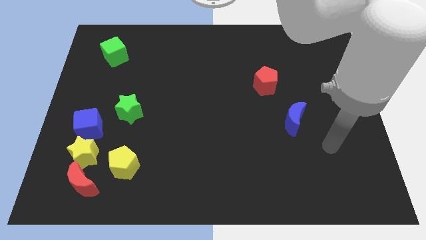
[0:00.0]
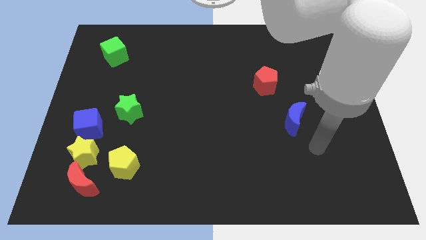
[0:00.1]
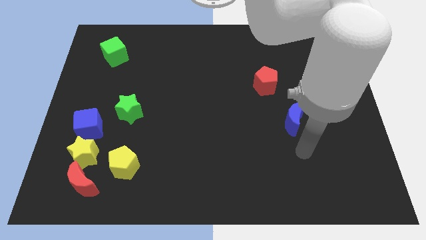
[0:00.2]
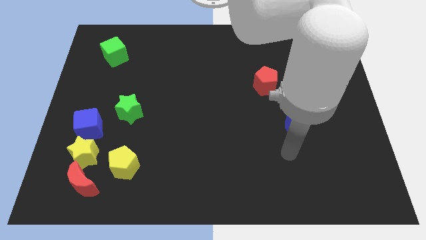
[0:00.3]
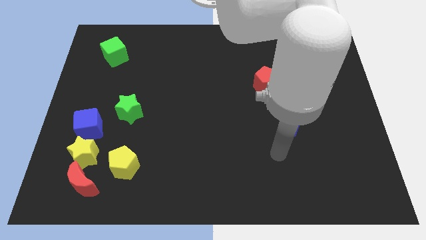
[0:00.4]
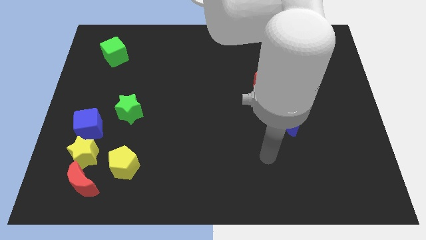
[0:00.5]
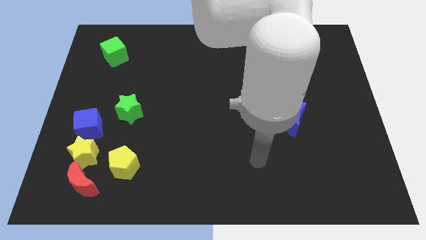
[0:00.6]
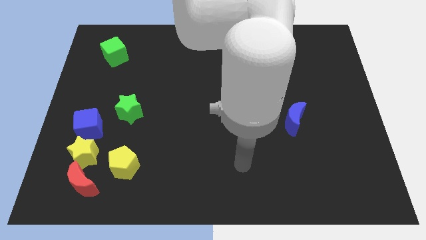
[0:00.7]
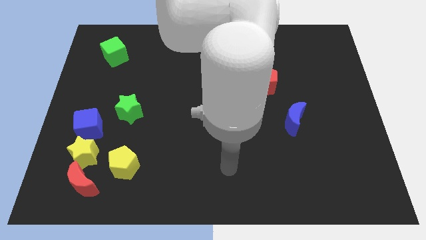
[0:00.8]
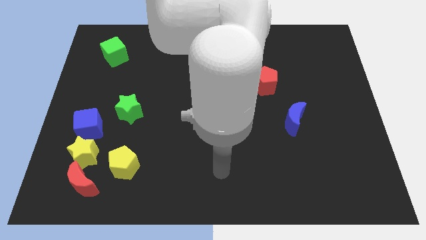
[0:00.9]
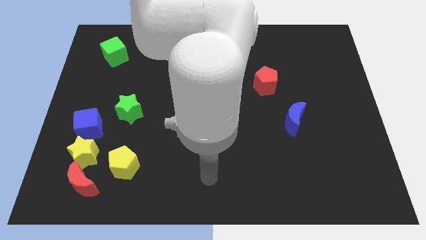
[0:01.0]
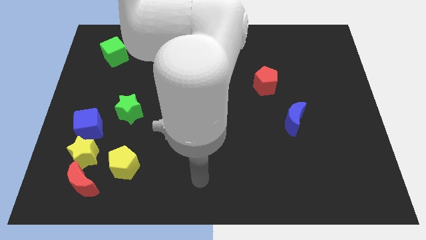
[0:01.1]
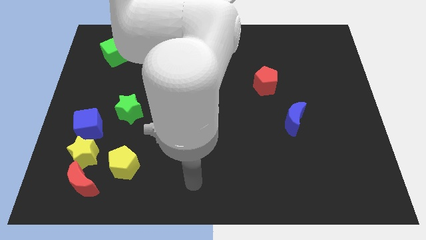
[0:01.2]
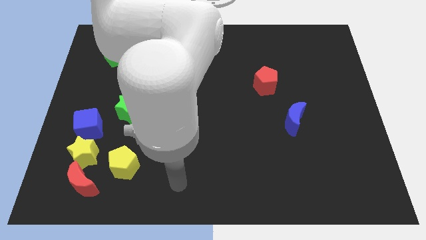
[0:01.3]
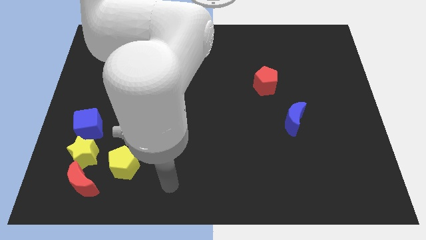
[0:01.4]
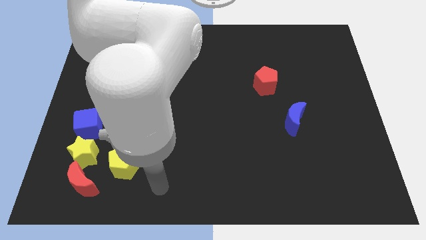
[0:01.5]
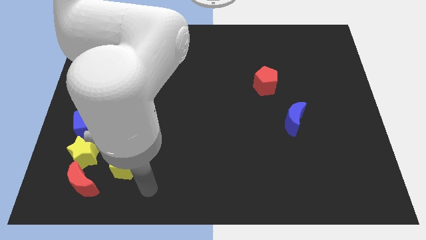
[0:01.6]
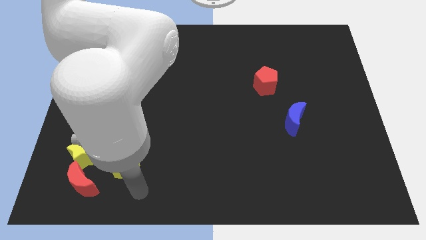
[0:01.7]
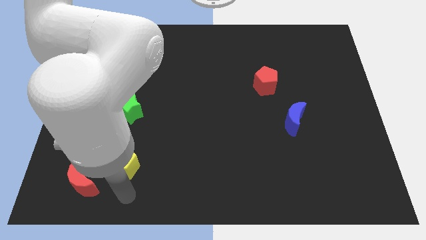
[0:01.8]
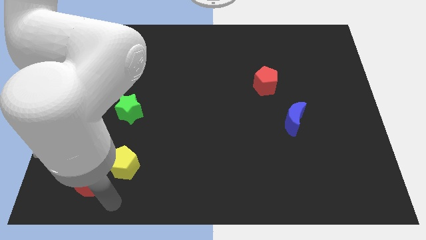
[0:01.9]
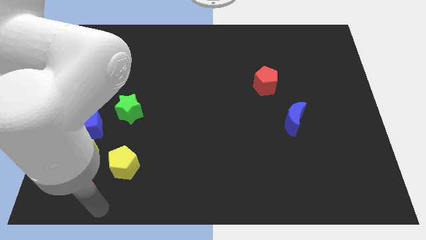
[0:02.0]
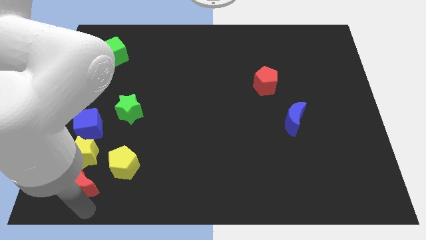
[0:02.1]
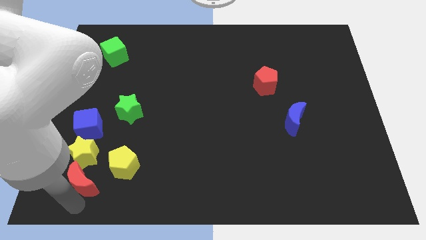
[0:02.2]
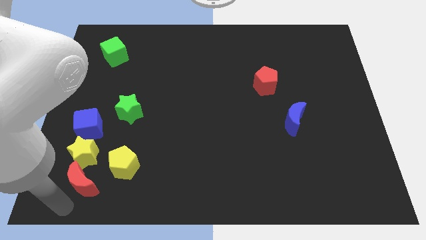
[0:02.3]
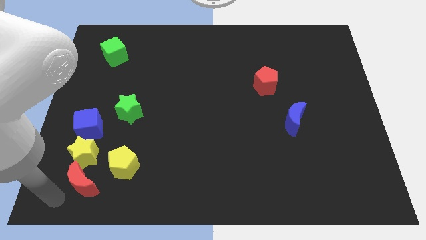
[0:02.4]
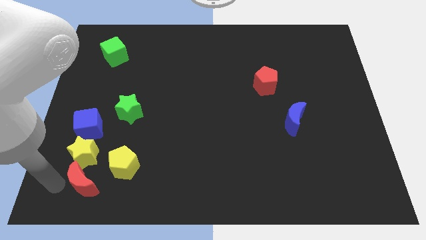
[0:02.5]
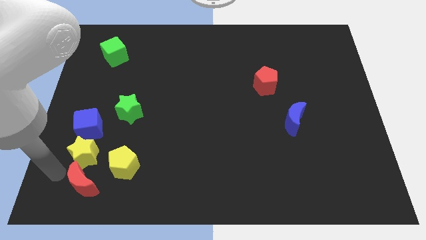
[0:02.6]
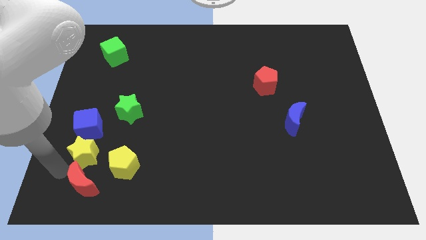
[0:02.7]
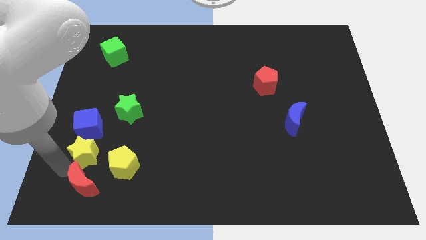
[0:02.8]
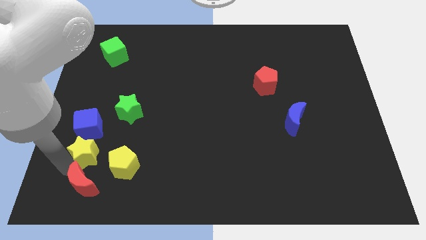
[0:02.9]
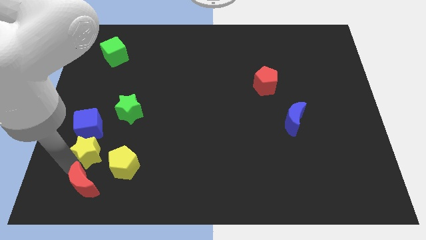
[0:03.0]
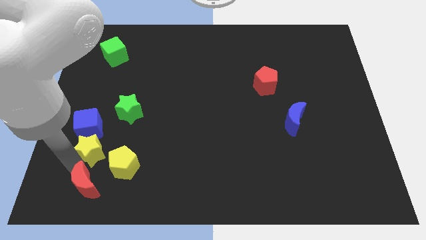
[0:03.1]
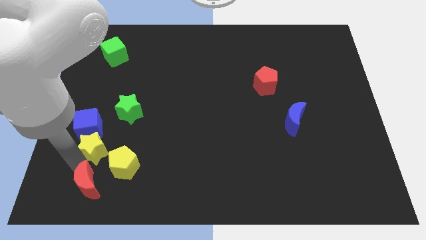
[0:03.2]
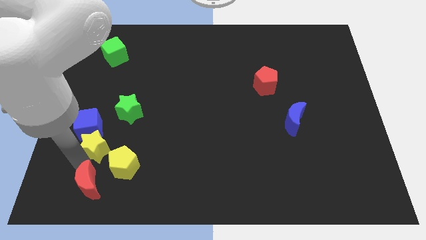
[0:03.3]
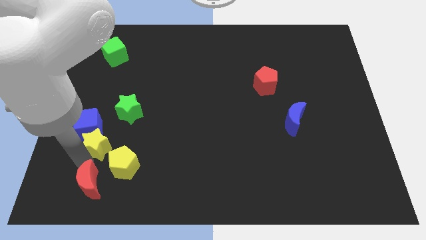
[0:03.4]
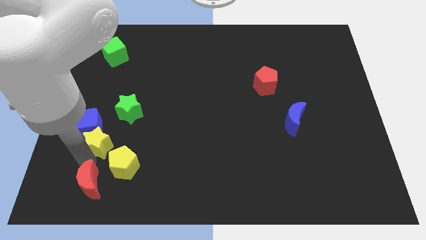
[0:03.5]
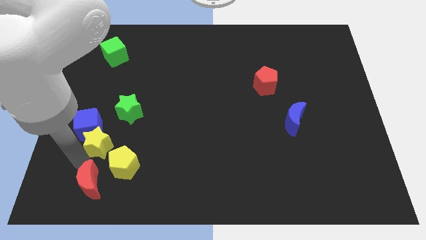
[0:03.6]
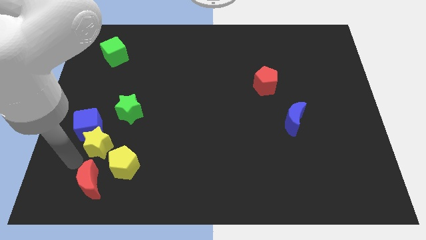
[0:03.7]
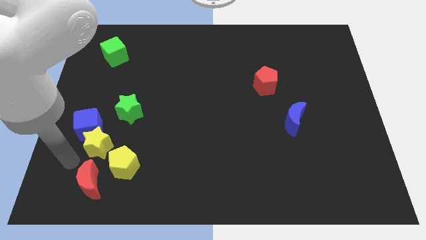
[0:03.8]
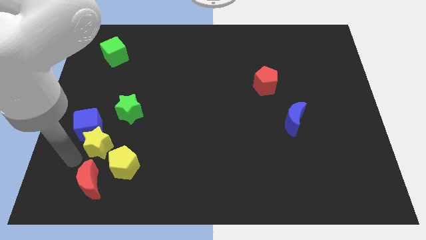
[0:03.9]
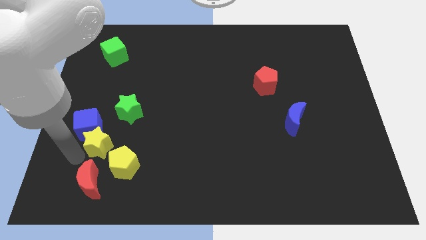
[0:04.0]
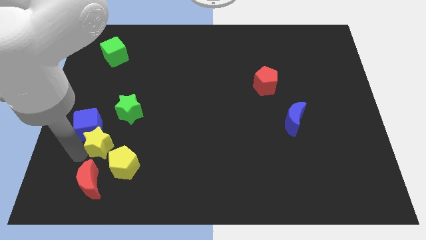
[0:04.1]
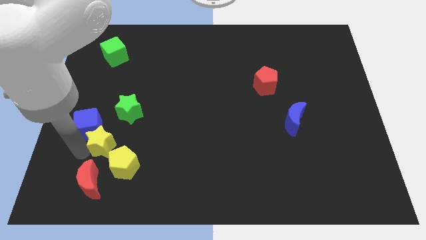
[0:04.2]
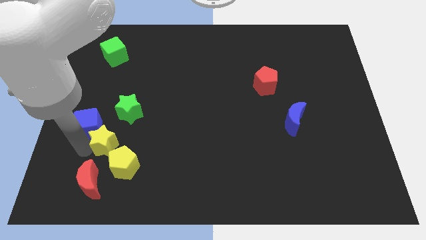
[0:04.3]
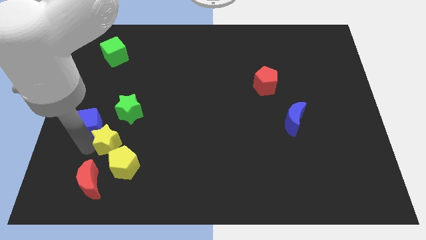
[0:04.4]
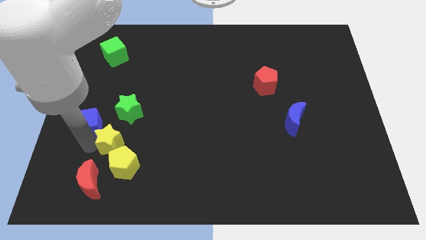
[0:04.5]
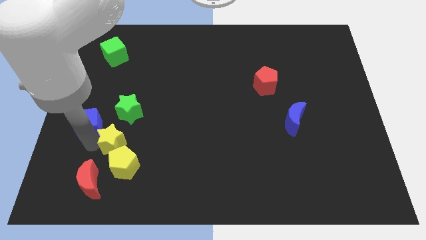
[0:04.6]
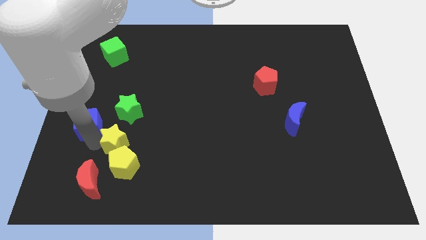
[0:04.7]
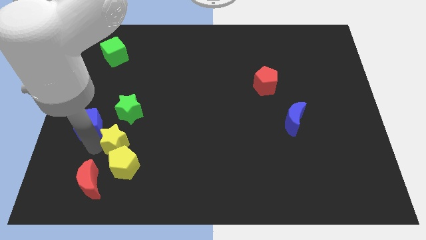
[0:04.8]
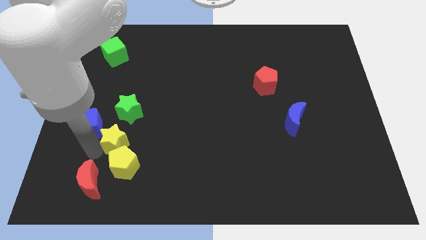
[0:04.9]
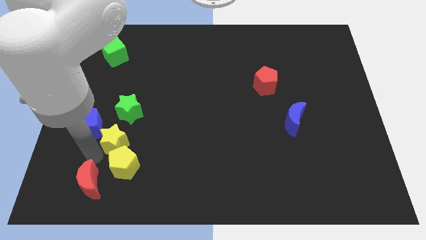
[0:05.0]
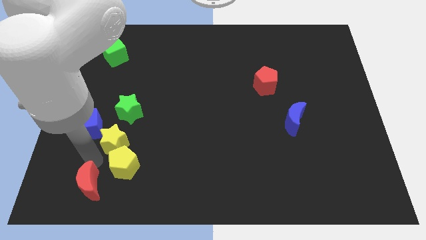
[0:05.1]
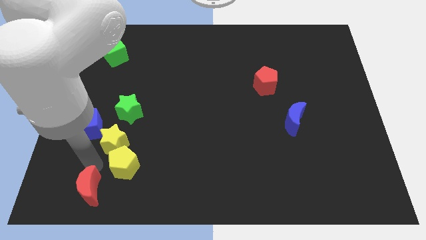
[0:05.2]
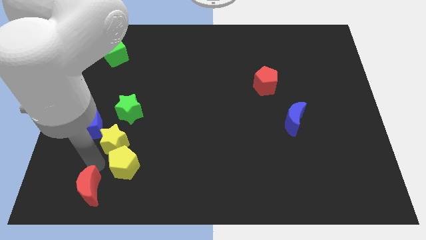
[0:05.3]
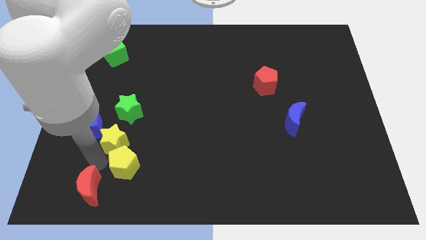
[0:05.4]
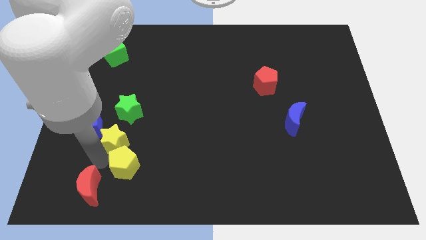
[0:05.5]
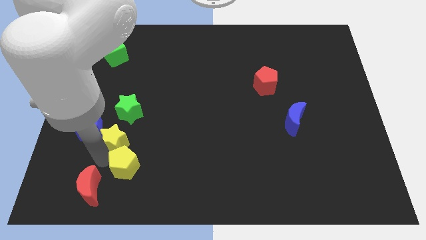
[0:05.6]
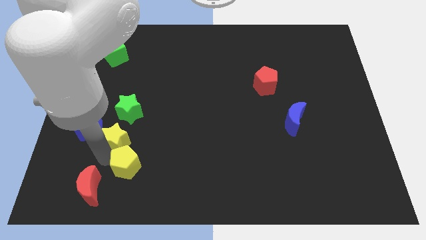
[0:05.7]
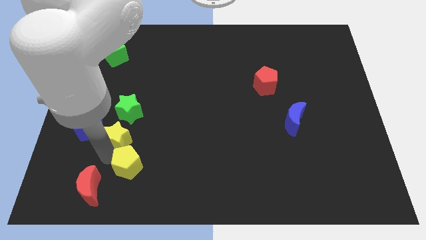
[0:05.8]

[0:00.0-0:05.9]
push the yellow star a little diagonally upwards and to the right

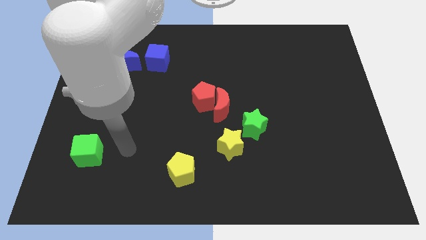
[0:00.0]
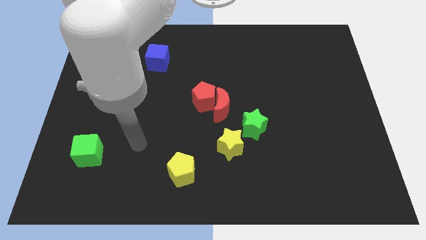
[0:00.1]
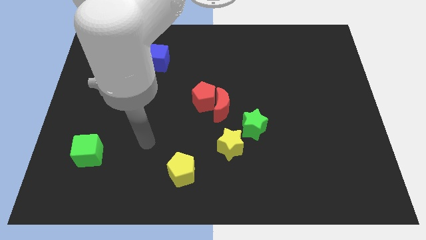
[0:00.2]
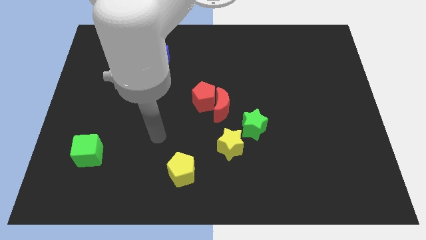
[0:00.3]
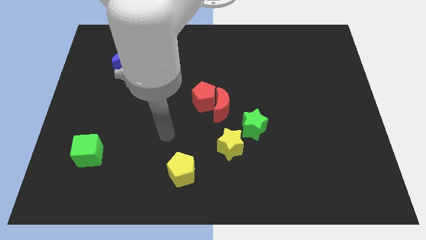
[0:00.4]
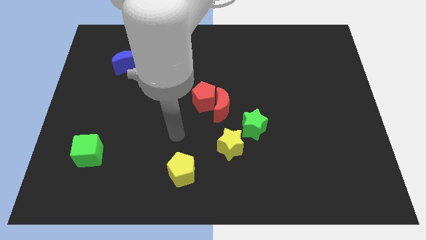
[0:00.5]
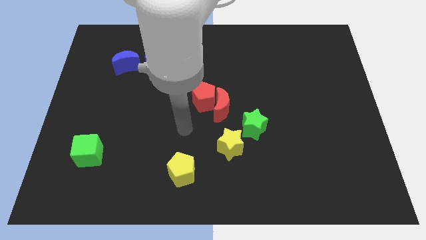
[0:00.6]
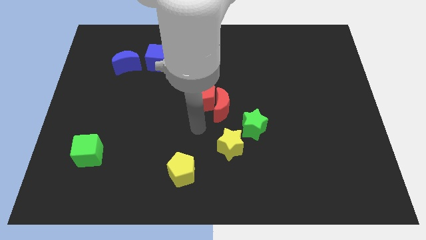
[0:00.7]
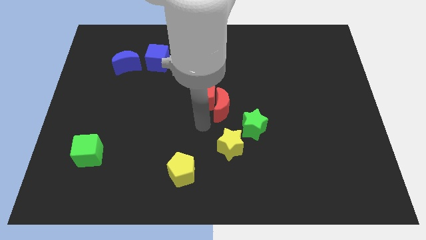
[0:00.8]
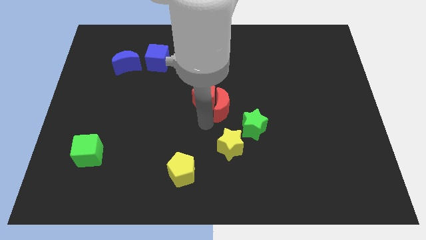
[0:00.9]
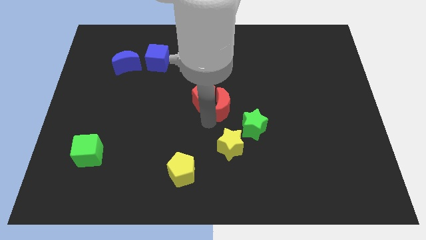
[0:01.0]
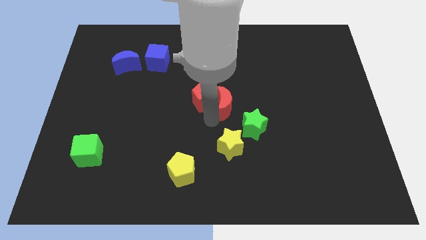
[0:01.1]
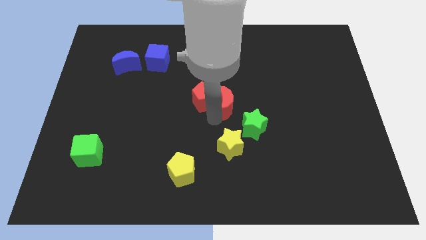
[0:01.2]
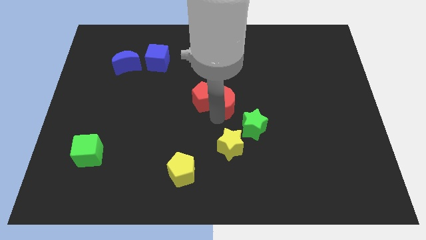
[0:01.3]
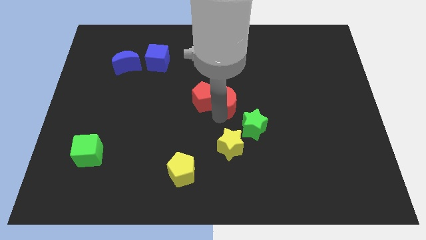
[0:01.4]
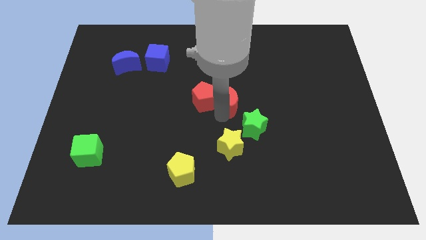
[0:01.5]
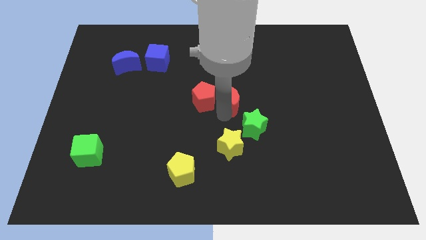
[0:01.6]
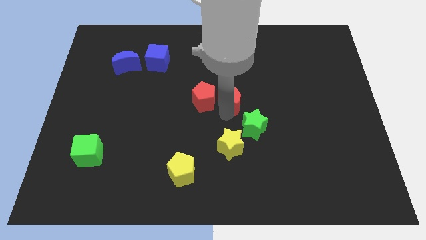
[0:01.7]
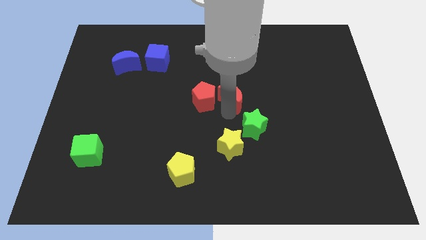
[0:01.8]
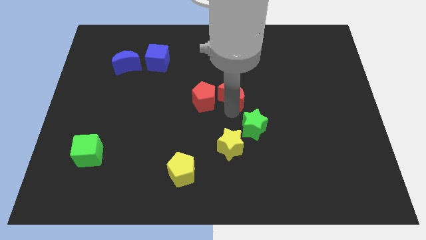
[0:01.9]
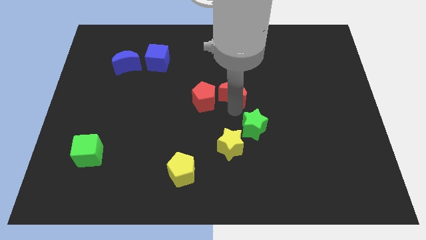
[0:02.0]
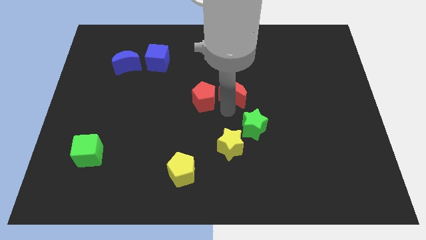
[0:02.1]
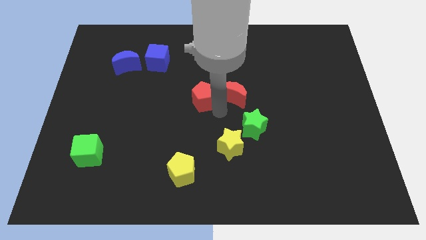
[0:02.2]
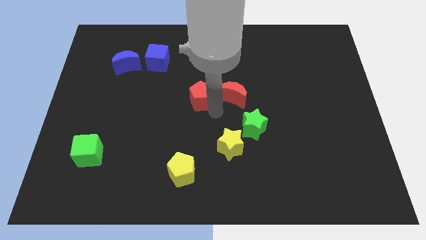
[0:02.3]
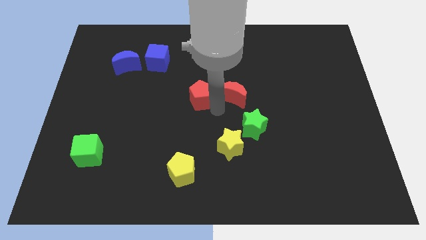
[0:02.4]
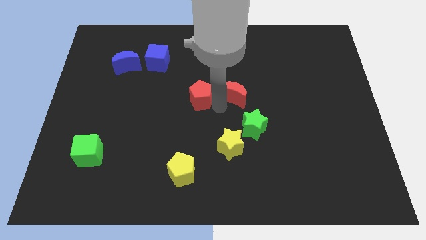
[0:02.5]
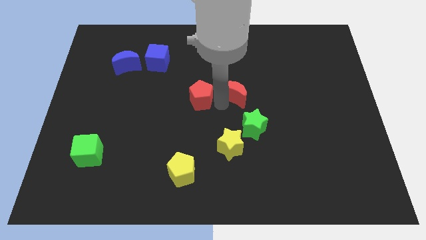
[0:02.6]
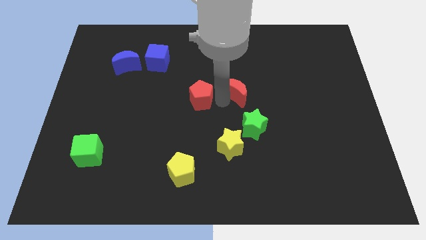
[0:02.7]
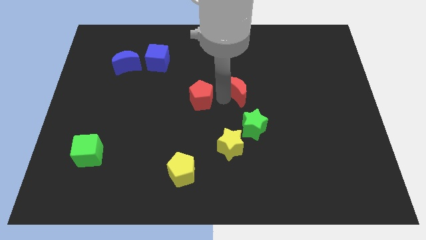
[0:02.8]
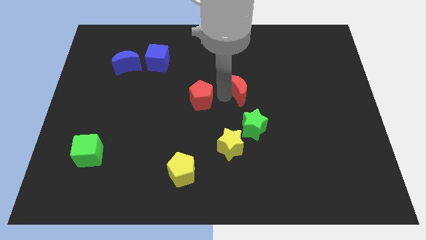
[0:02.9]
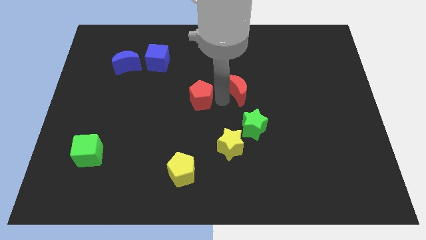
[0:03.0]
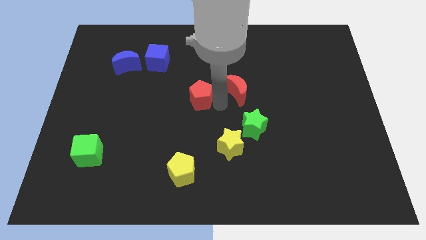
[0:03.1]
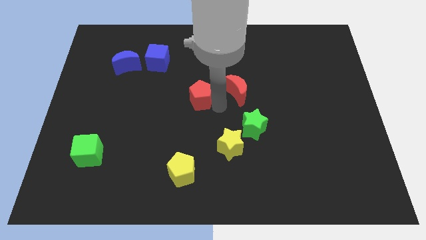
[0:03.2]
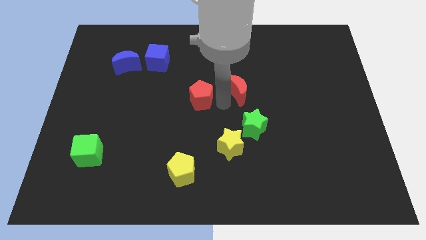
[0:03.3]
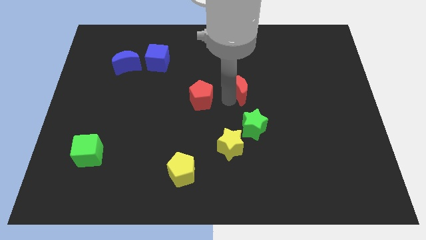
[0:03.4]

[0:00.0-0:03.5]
slide the red moon up and to the right a little
